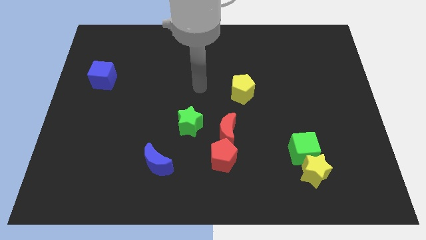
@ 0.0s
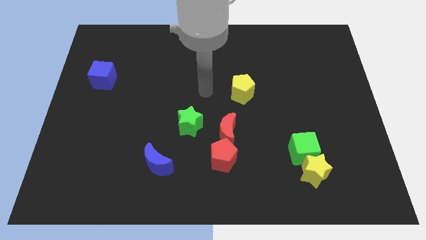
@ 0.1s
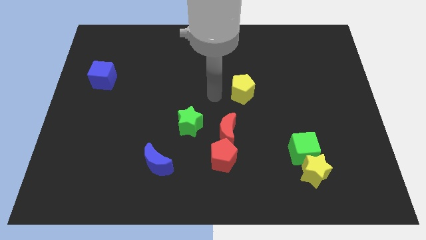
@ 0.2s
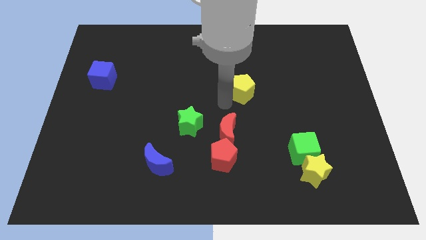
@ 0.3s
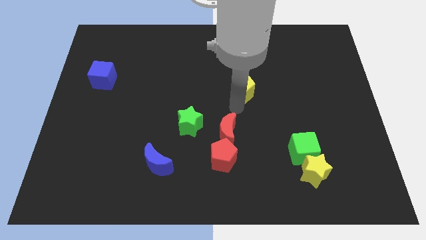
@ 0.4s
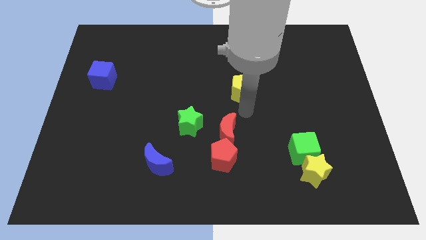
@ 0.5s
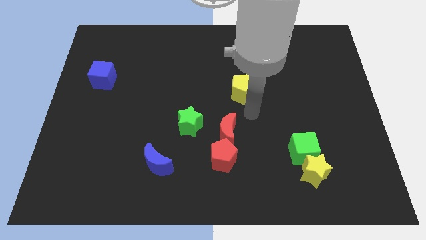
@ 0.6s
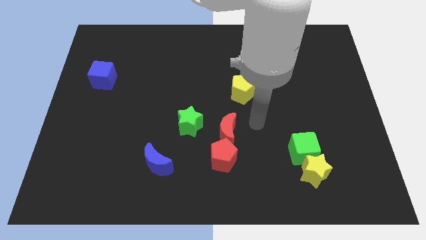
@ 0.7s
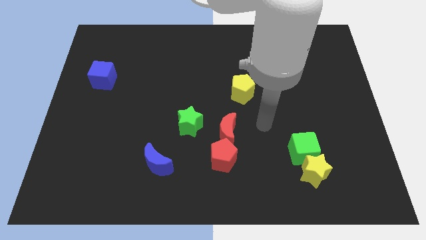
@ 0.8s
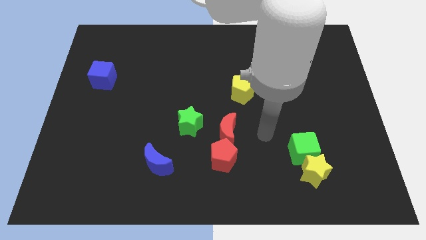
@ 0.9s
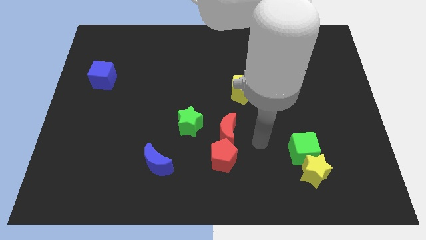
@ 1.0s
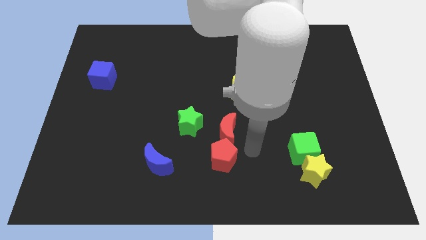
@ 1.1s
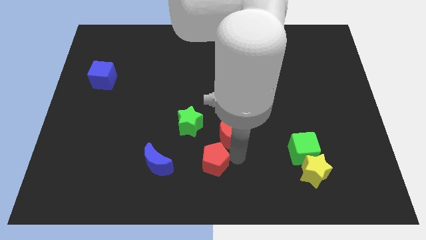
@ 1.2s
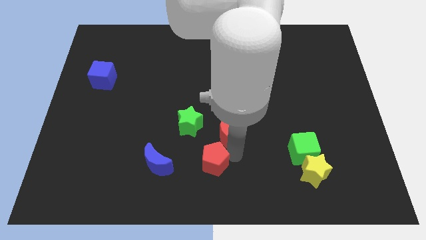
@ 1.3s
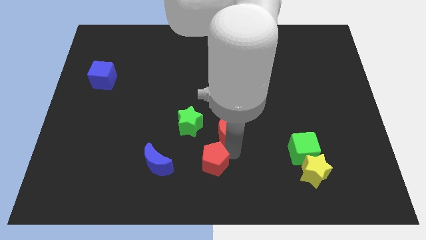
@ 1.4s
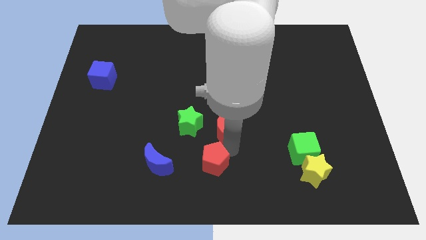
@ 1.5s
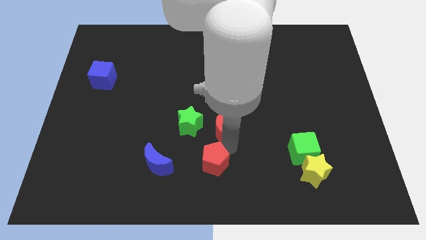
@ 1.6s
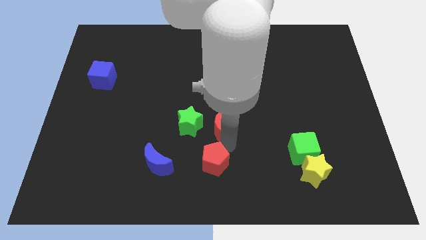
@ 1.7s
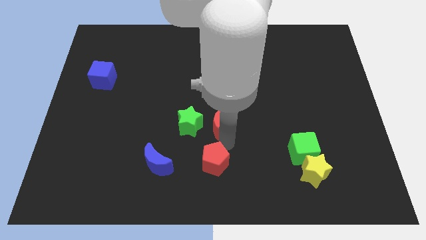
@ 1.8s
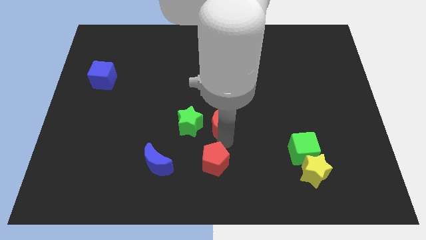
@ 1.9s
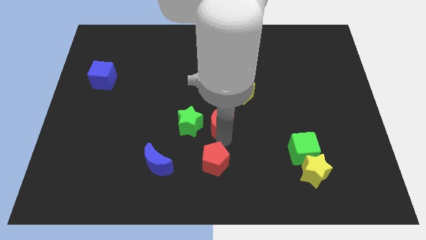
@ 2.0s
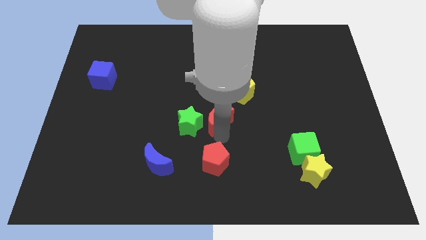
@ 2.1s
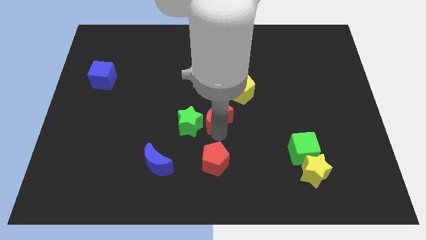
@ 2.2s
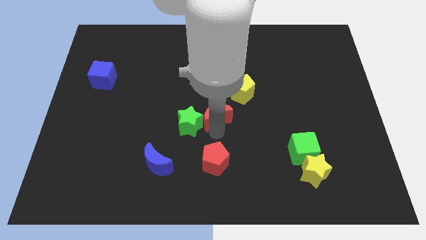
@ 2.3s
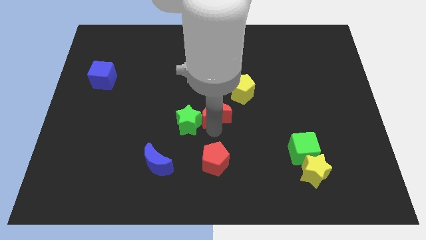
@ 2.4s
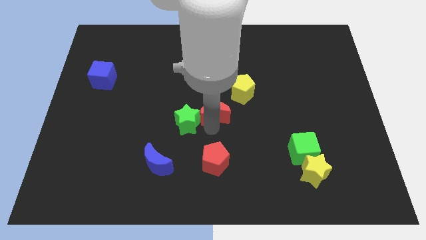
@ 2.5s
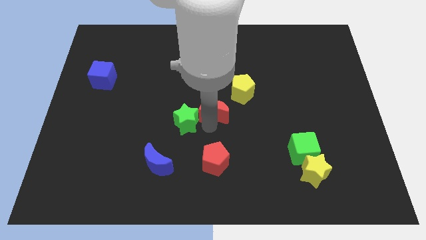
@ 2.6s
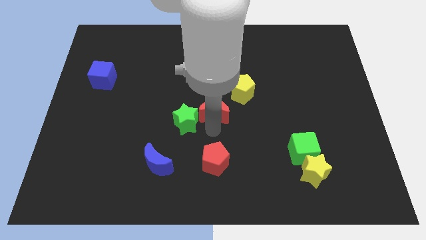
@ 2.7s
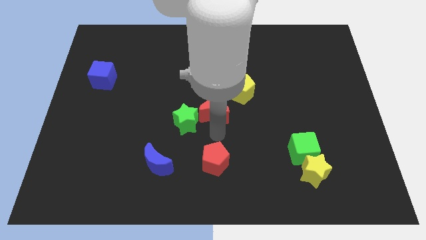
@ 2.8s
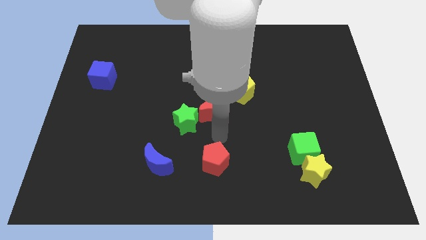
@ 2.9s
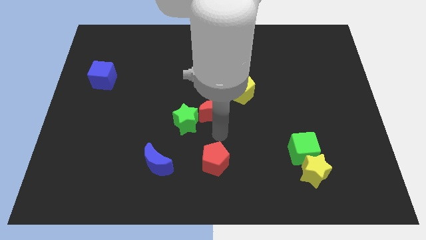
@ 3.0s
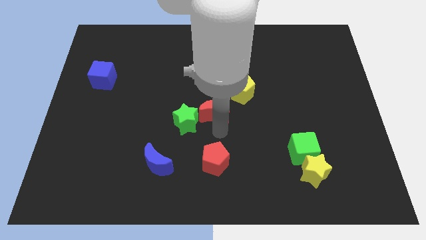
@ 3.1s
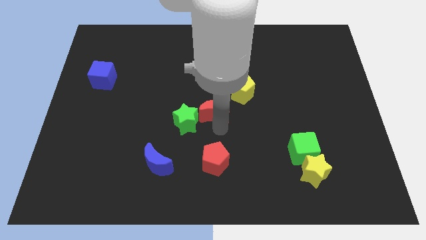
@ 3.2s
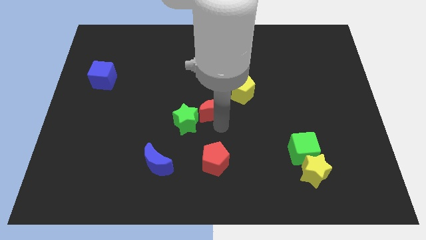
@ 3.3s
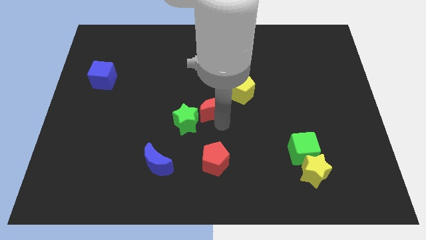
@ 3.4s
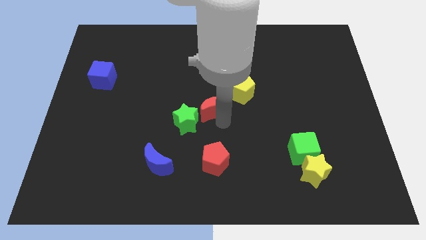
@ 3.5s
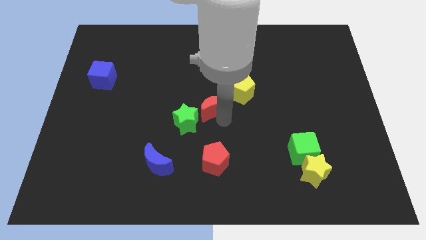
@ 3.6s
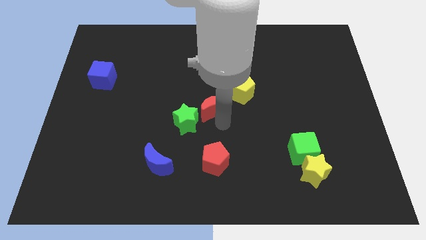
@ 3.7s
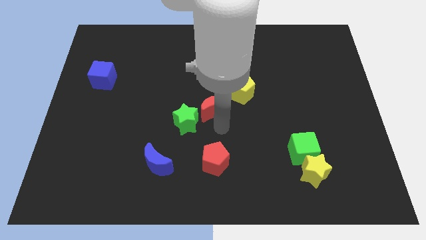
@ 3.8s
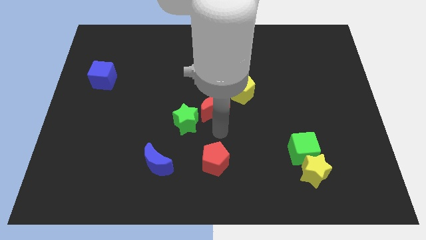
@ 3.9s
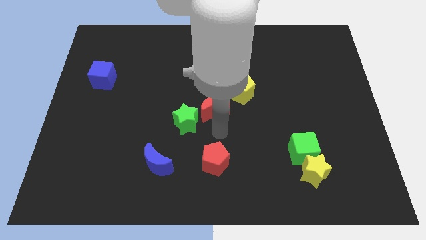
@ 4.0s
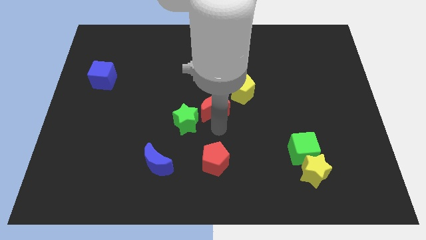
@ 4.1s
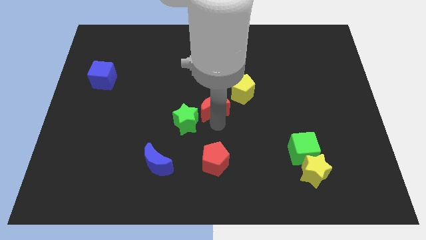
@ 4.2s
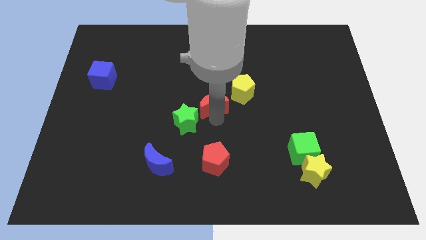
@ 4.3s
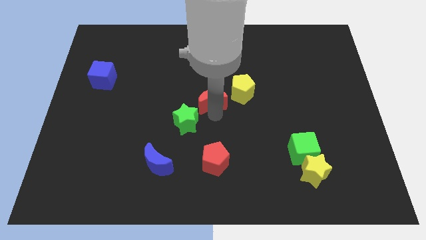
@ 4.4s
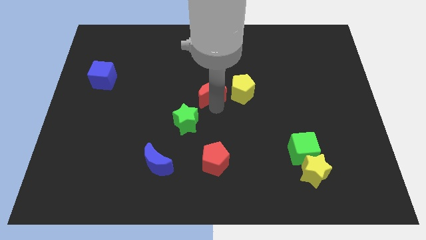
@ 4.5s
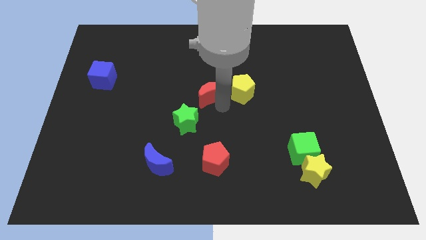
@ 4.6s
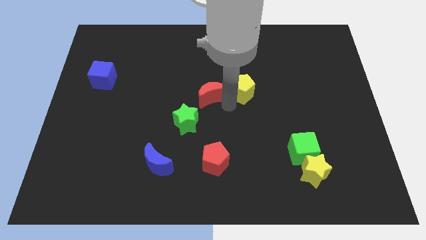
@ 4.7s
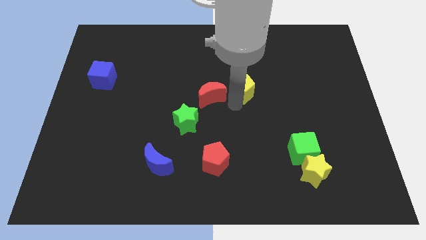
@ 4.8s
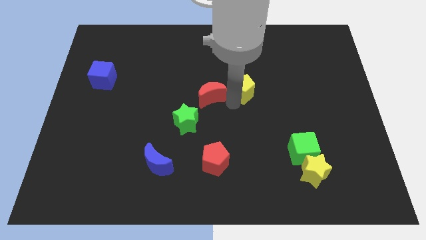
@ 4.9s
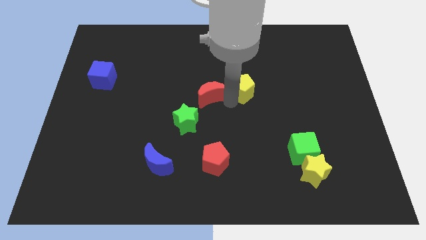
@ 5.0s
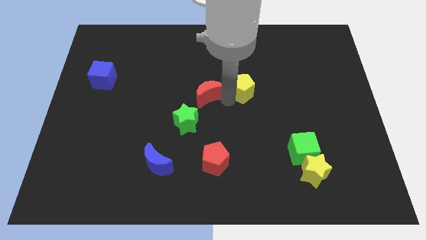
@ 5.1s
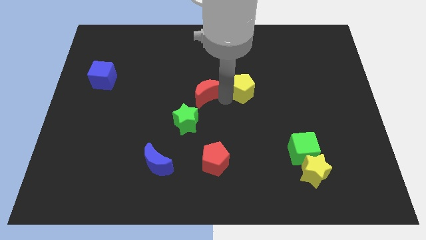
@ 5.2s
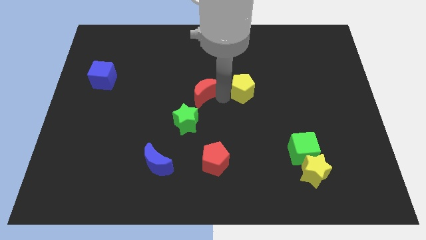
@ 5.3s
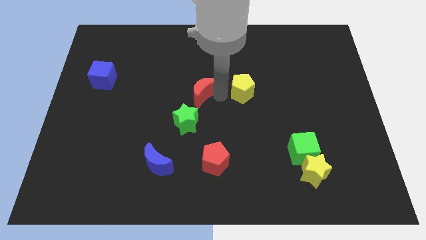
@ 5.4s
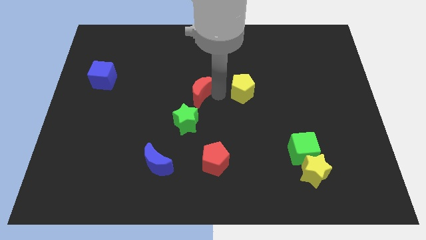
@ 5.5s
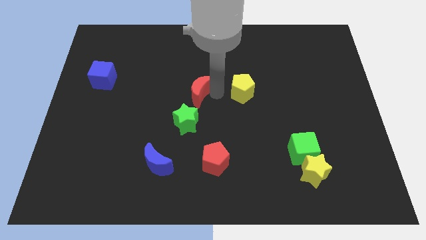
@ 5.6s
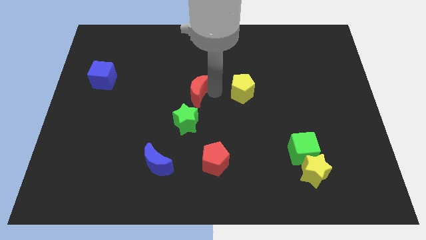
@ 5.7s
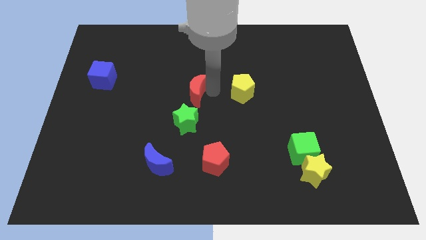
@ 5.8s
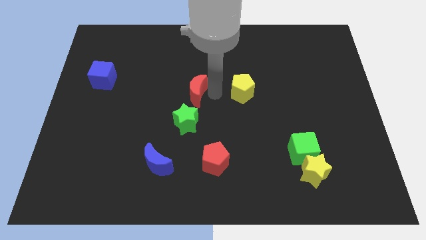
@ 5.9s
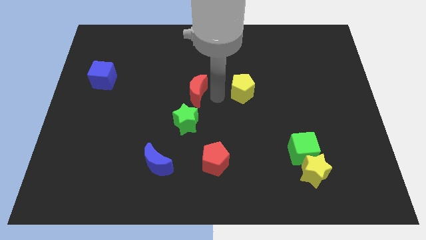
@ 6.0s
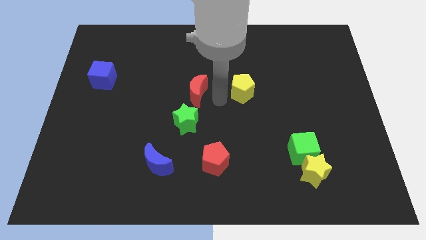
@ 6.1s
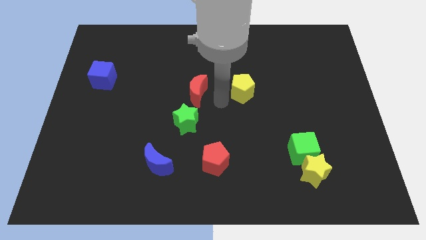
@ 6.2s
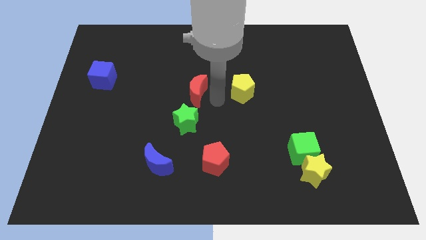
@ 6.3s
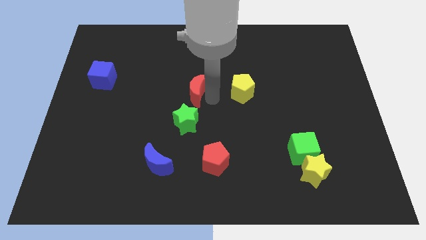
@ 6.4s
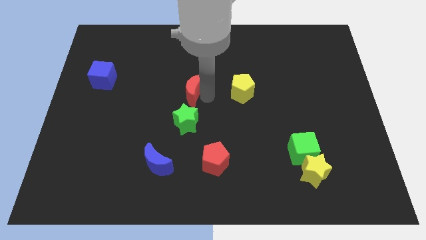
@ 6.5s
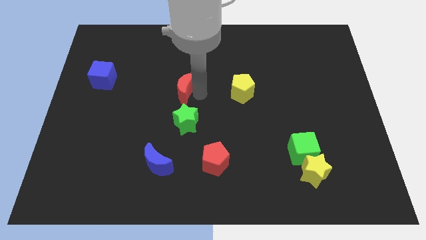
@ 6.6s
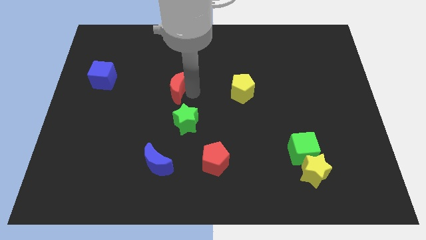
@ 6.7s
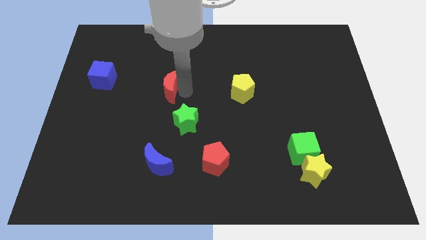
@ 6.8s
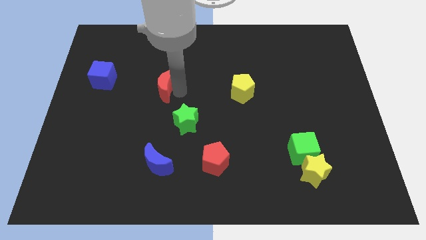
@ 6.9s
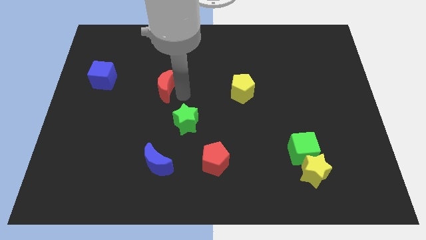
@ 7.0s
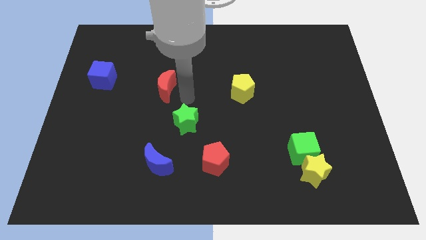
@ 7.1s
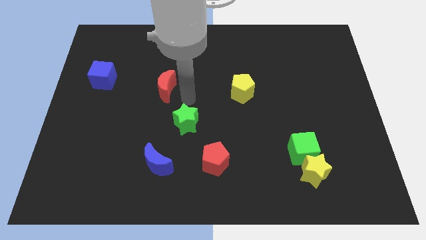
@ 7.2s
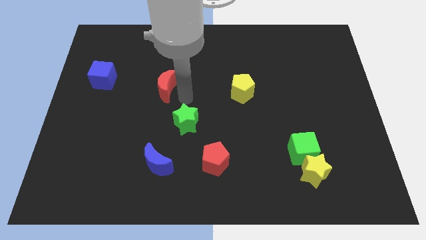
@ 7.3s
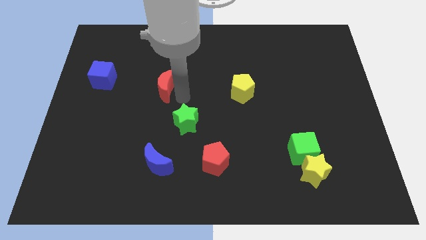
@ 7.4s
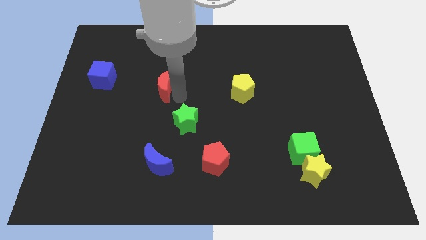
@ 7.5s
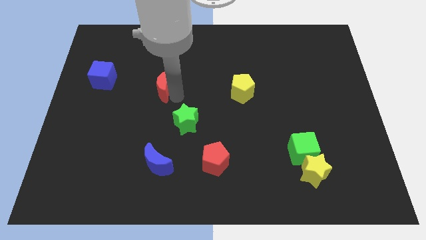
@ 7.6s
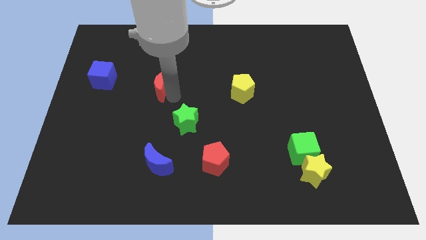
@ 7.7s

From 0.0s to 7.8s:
move the red moon to the right side of the blue cube
